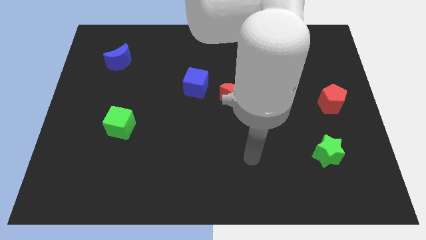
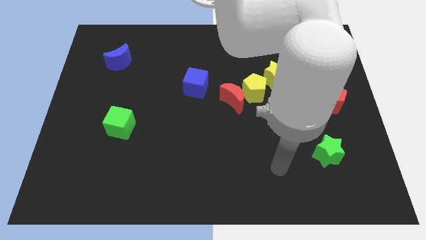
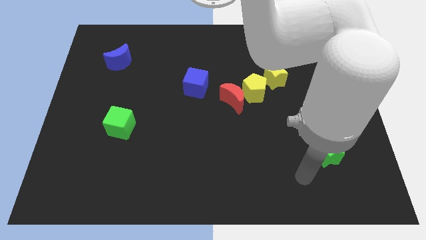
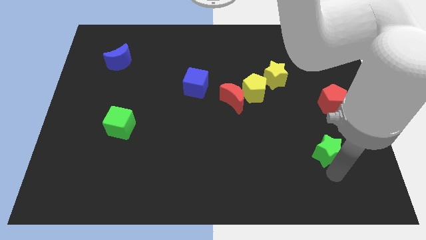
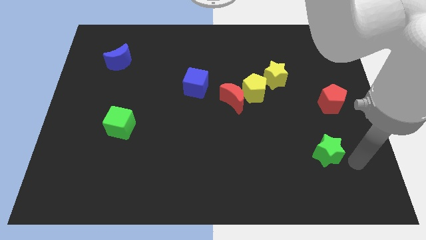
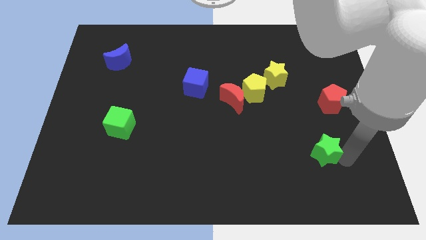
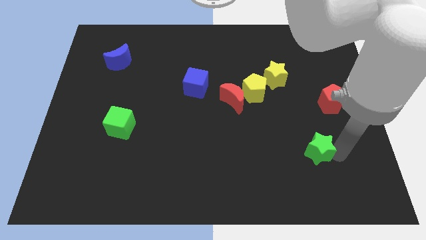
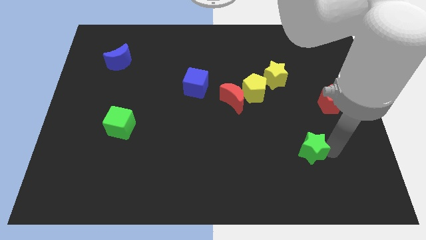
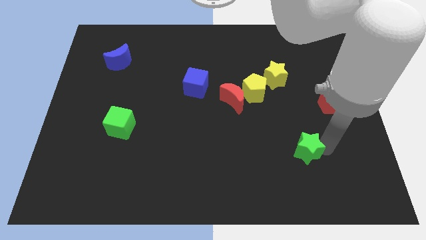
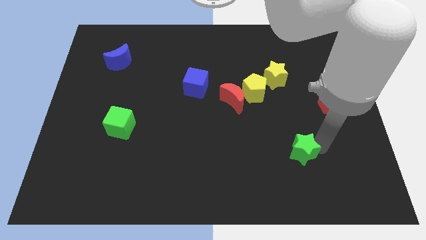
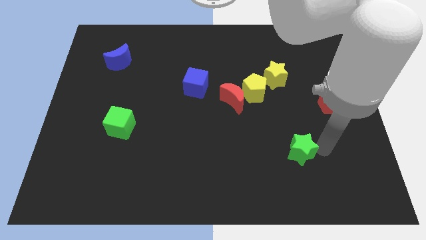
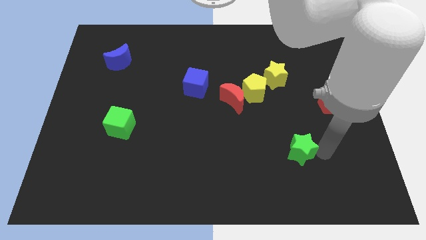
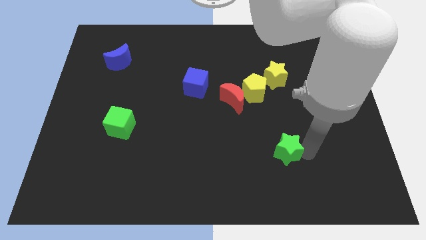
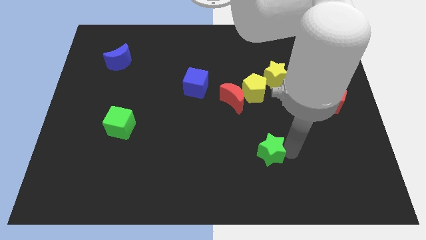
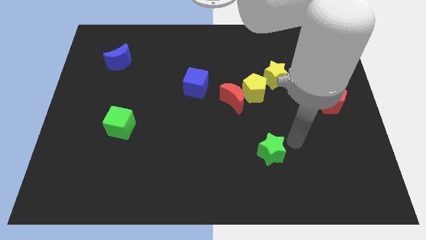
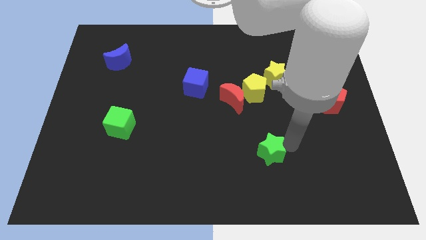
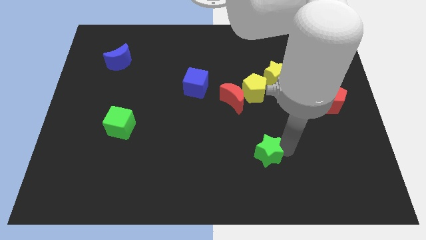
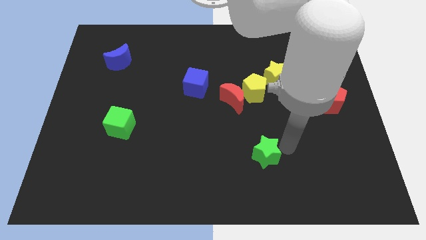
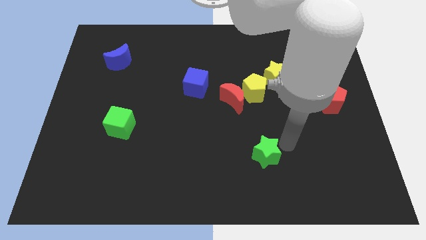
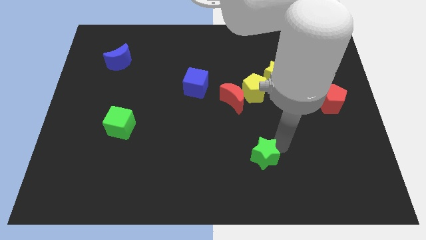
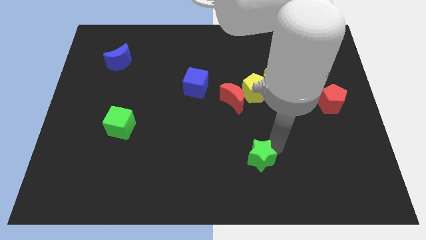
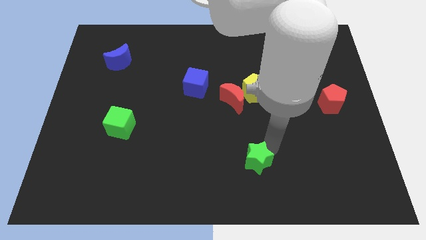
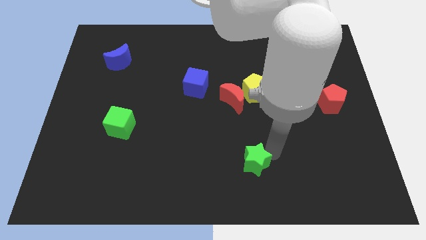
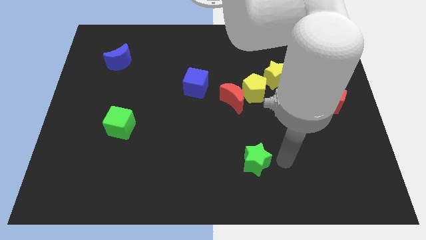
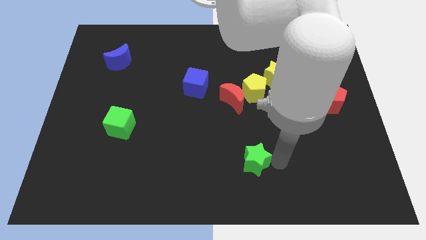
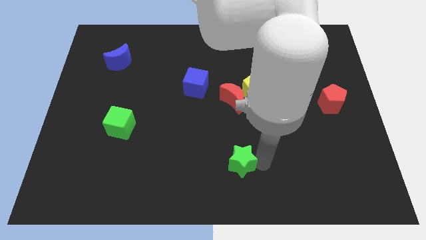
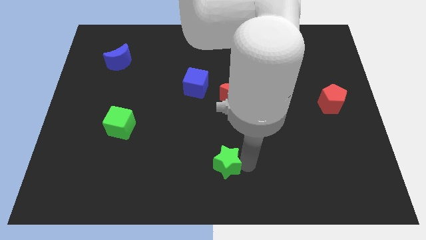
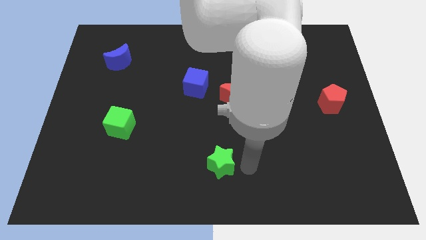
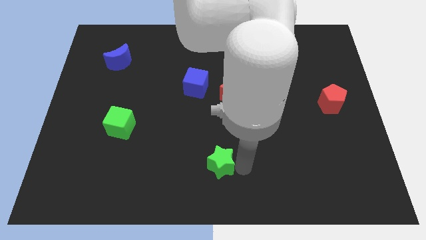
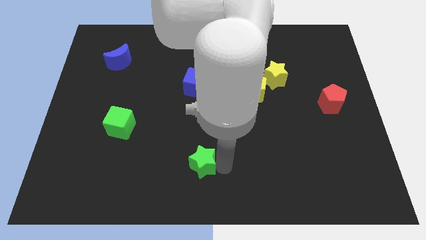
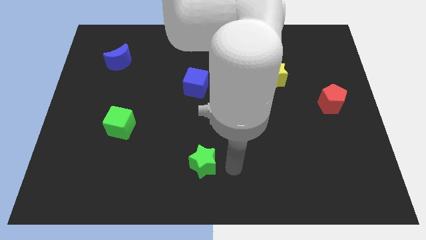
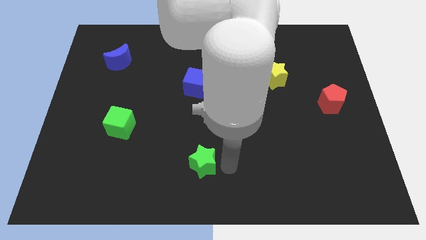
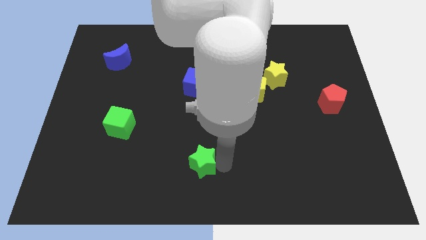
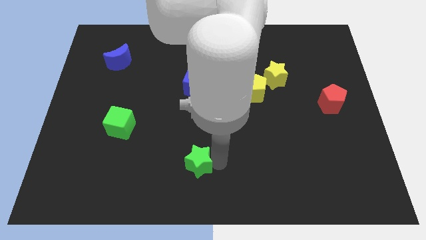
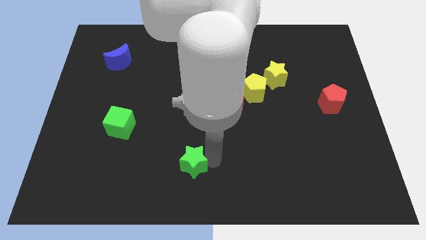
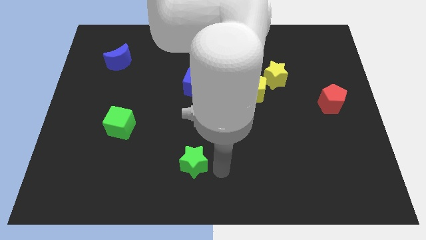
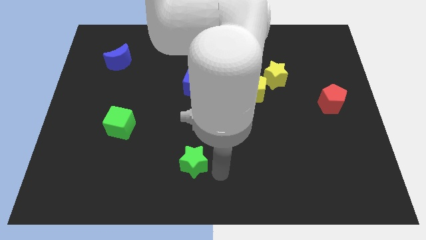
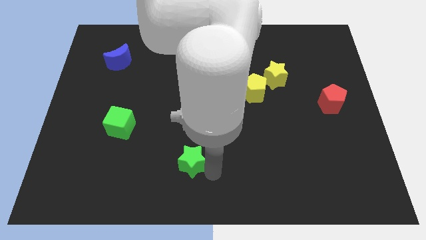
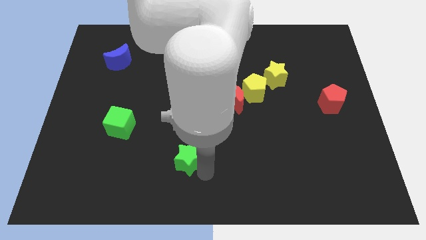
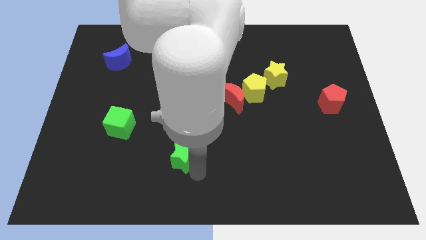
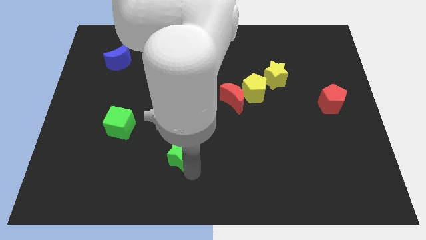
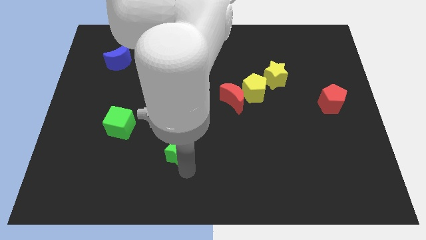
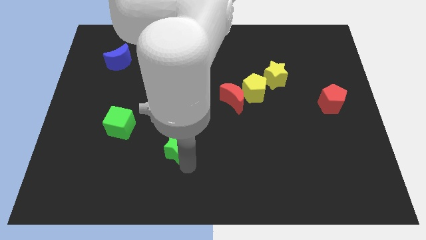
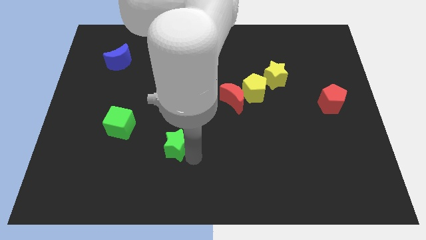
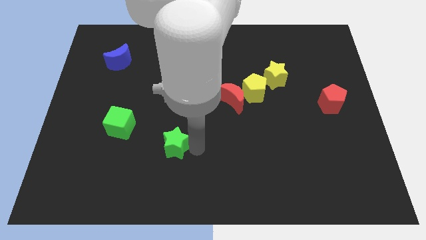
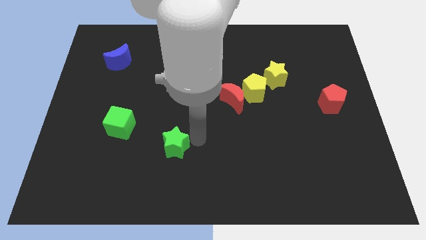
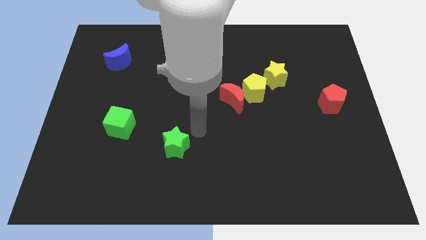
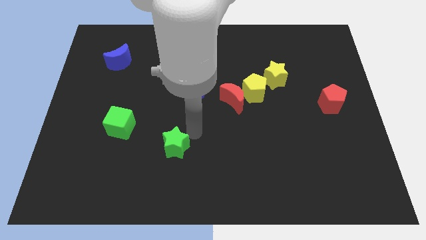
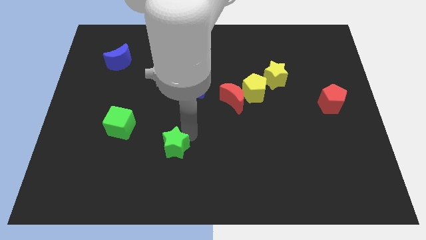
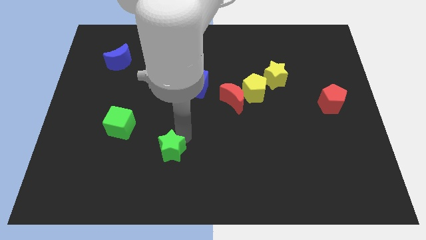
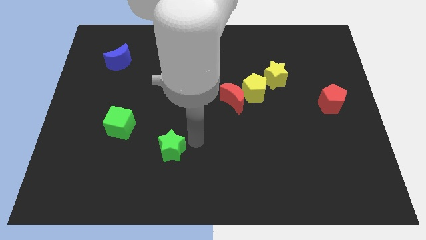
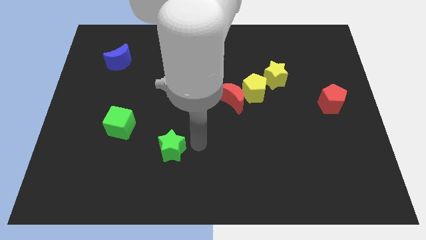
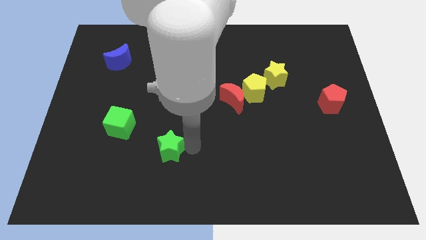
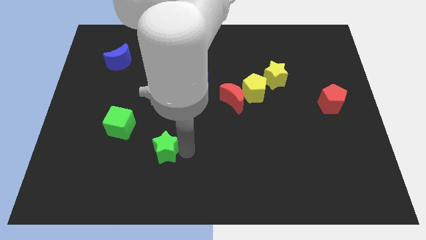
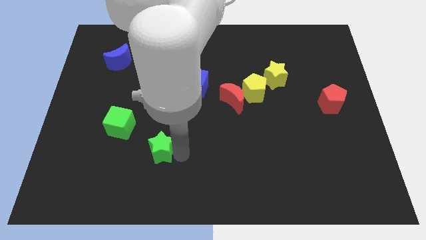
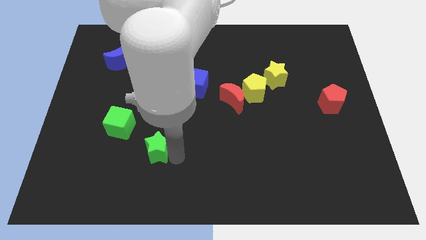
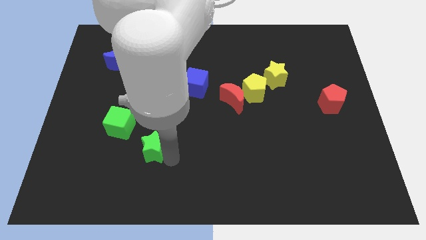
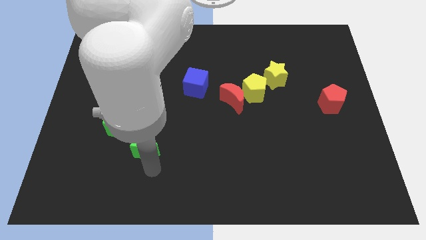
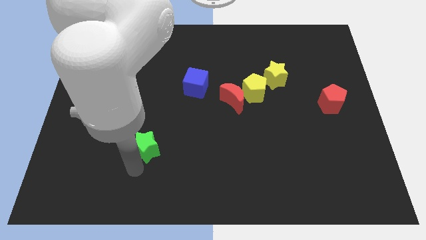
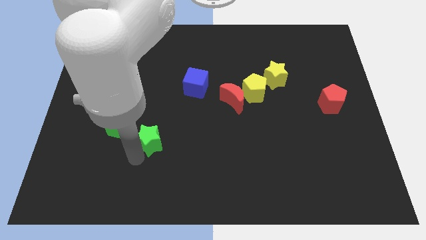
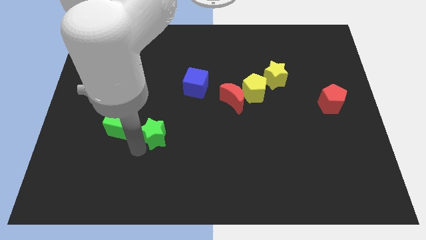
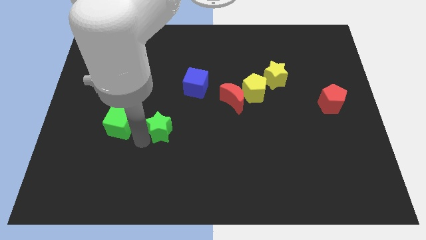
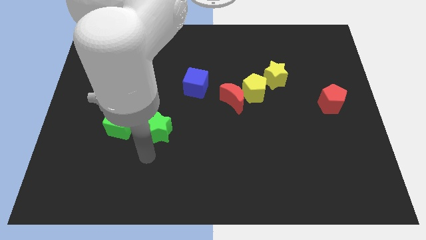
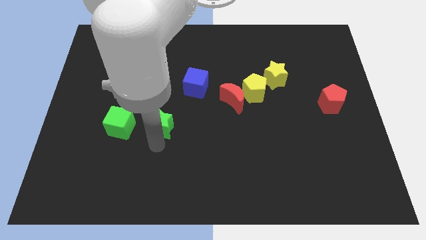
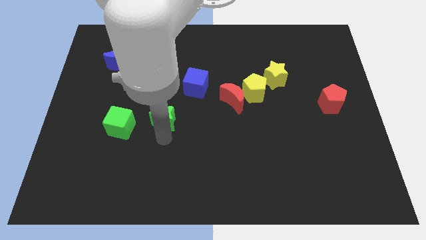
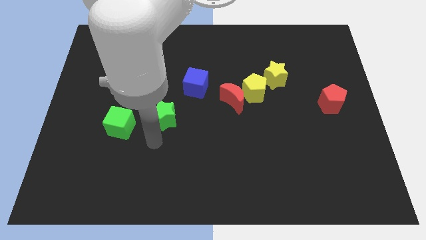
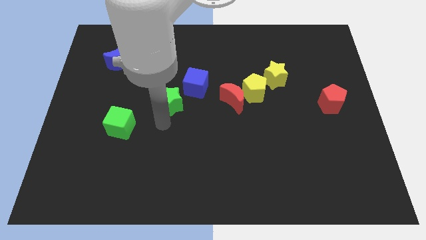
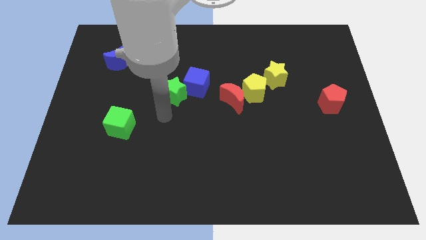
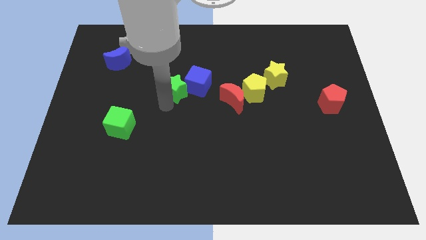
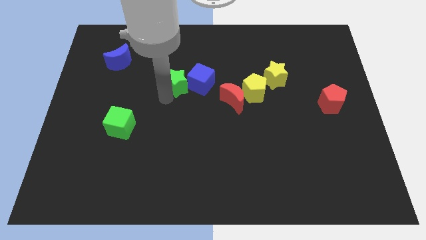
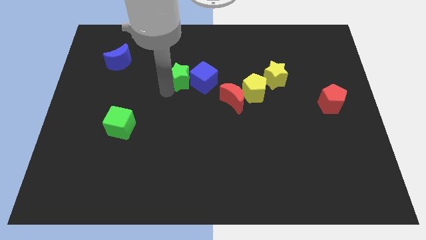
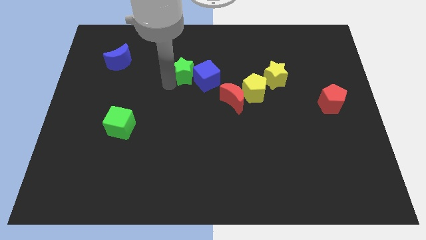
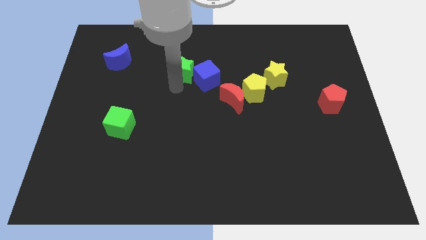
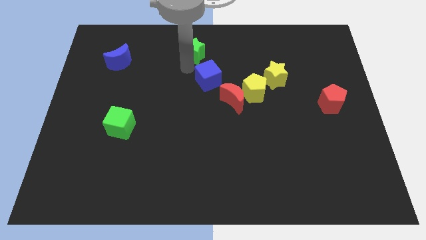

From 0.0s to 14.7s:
put the green star to the towards your base
